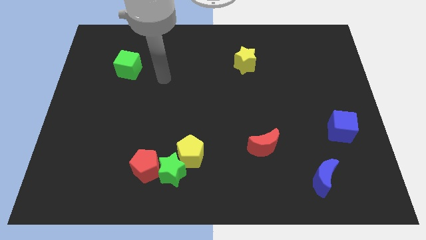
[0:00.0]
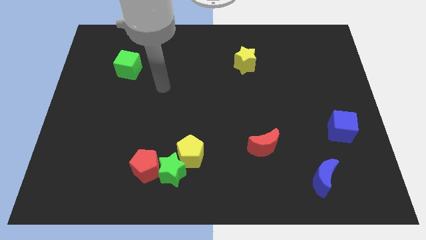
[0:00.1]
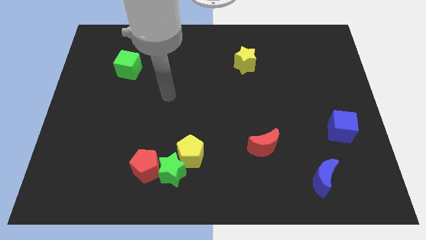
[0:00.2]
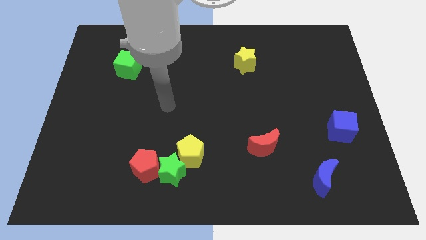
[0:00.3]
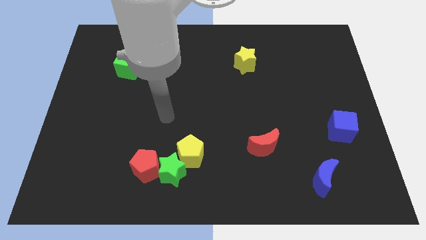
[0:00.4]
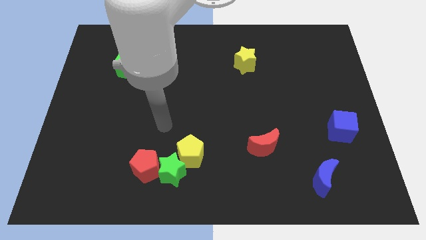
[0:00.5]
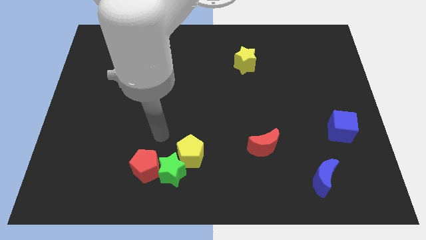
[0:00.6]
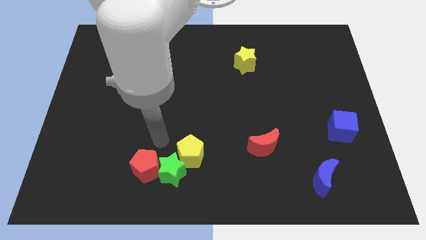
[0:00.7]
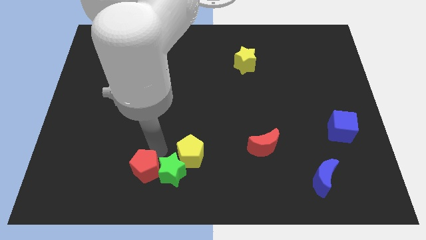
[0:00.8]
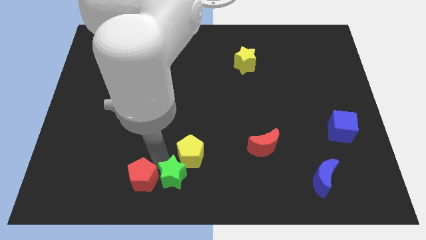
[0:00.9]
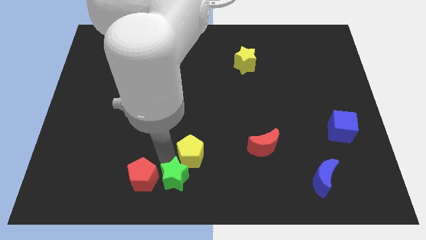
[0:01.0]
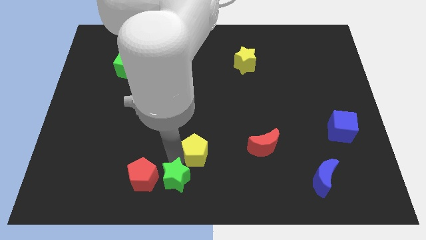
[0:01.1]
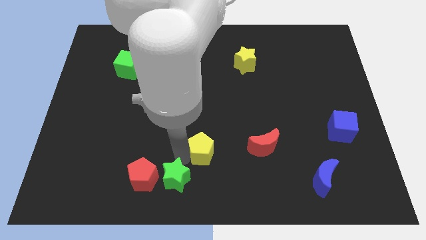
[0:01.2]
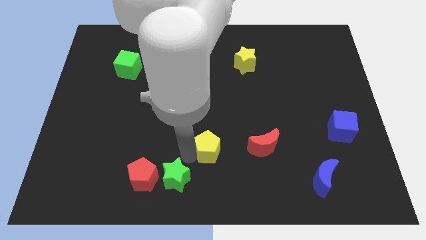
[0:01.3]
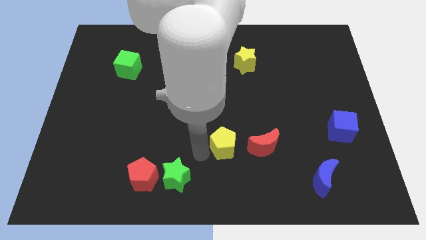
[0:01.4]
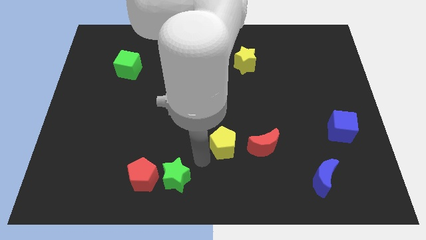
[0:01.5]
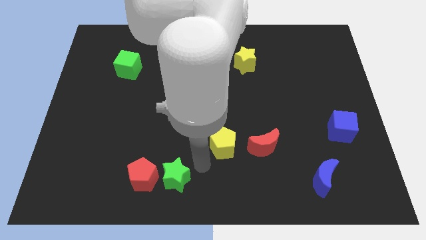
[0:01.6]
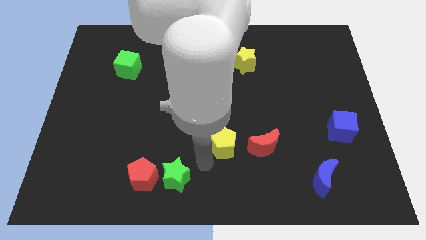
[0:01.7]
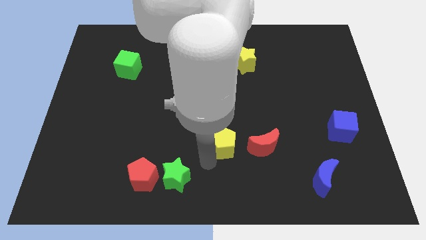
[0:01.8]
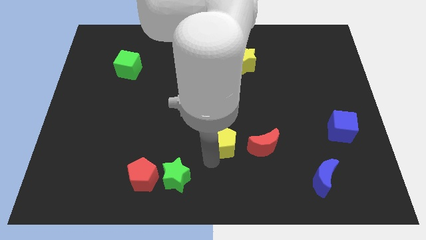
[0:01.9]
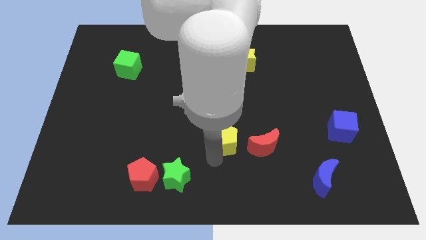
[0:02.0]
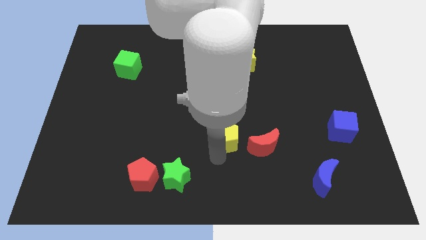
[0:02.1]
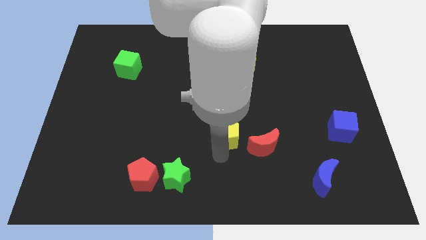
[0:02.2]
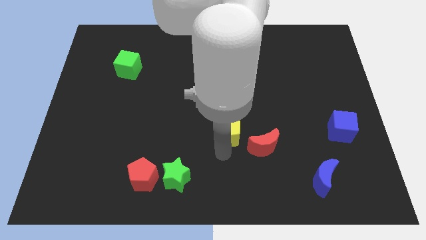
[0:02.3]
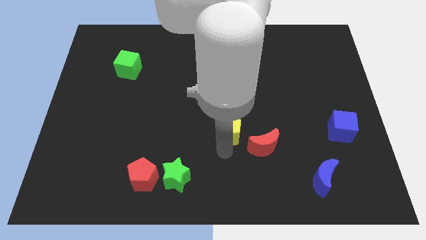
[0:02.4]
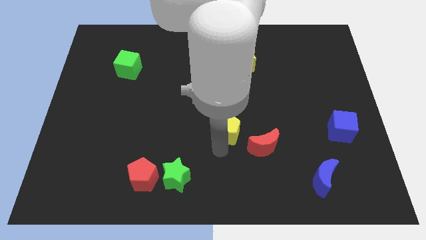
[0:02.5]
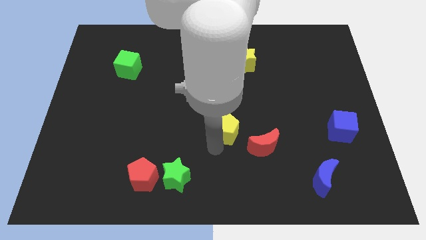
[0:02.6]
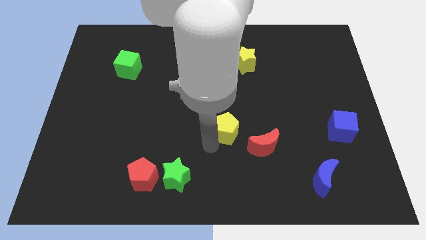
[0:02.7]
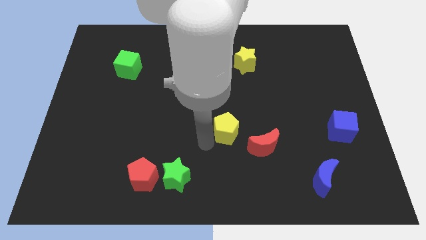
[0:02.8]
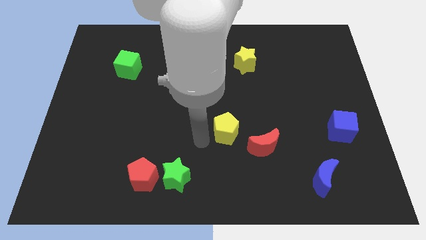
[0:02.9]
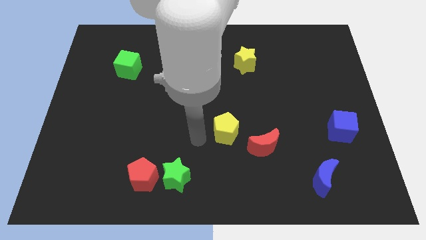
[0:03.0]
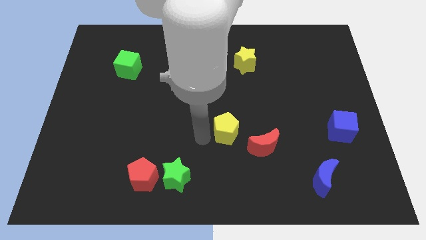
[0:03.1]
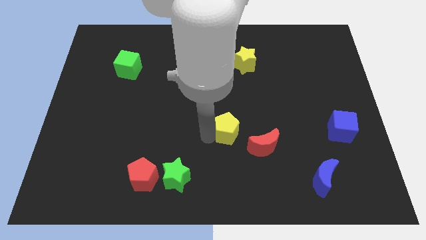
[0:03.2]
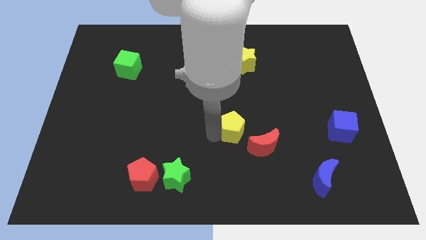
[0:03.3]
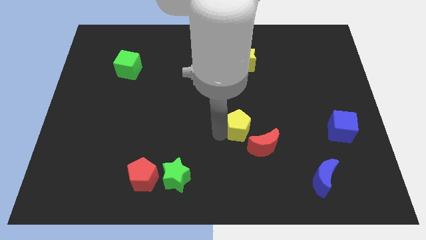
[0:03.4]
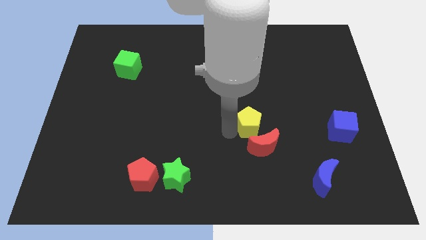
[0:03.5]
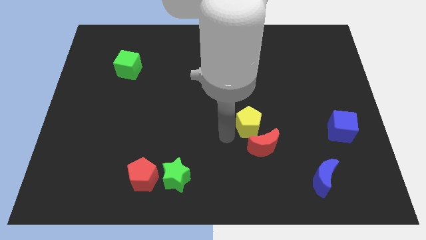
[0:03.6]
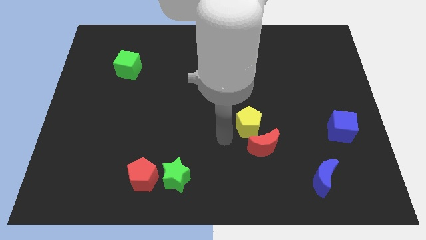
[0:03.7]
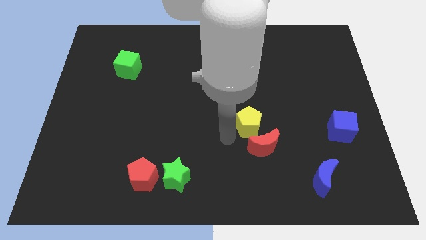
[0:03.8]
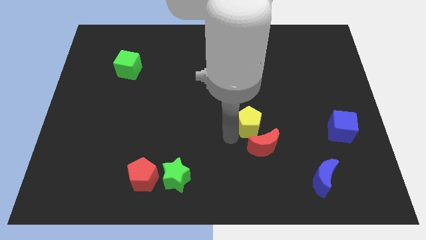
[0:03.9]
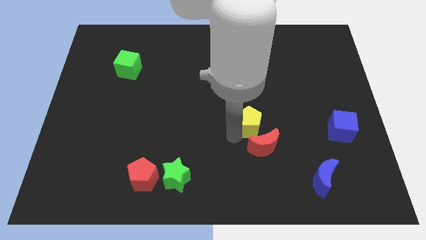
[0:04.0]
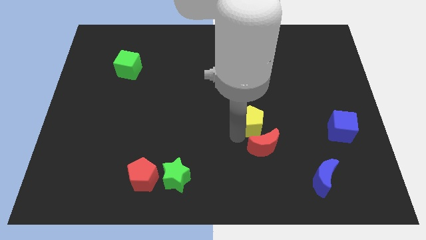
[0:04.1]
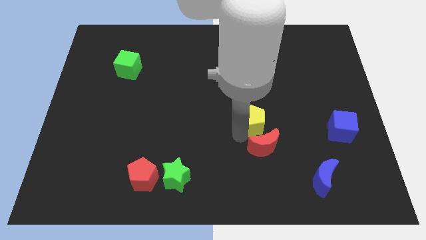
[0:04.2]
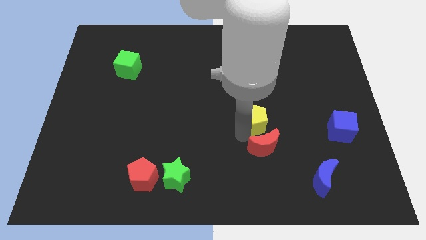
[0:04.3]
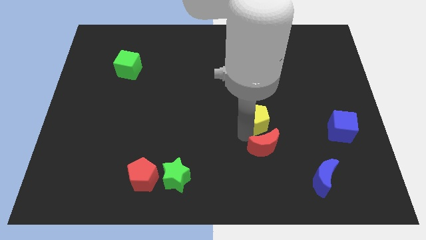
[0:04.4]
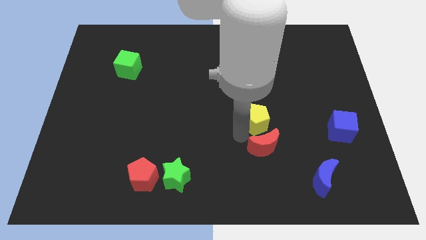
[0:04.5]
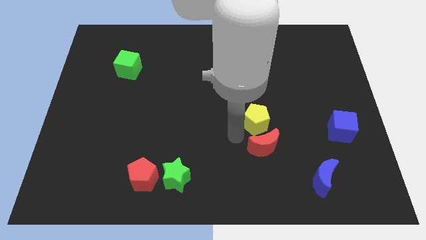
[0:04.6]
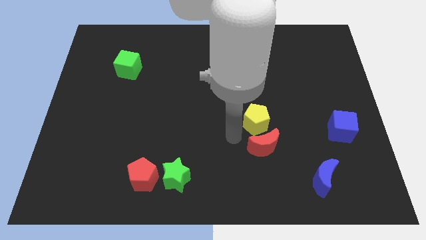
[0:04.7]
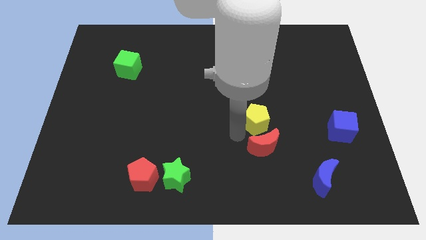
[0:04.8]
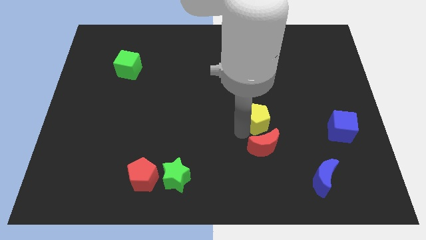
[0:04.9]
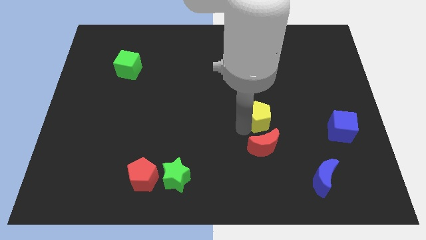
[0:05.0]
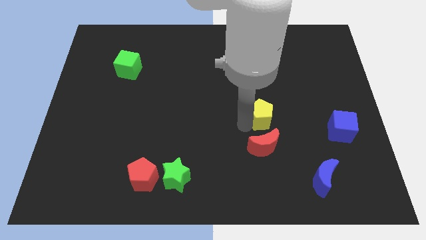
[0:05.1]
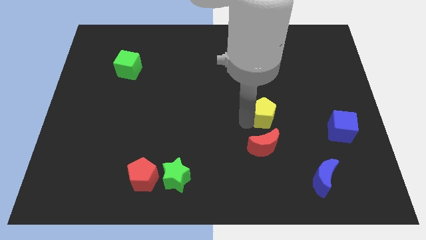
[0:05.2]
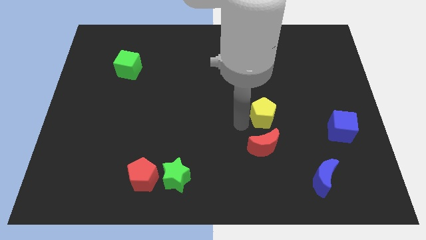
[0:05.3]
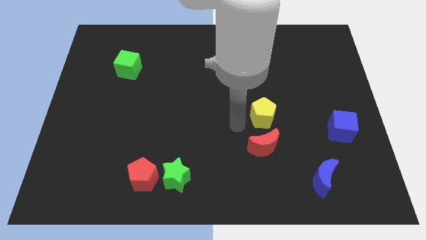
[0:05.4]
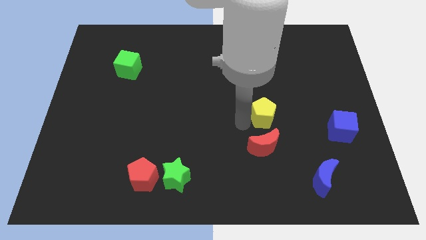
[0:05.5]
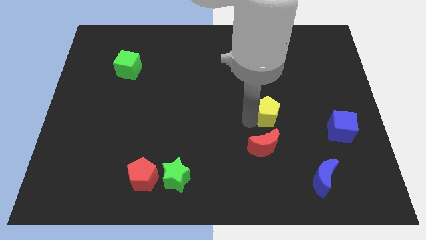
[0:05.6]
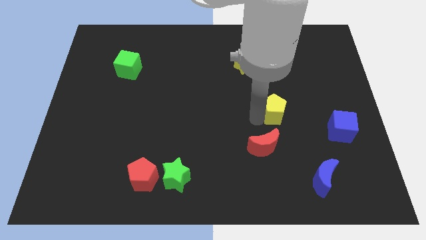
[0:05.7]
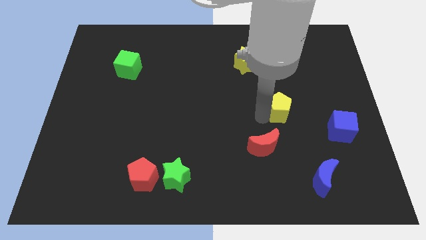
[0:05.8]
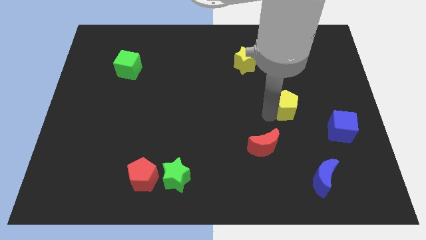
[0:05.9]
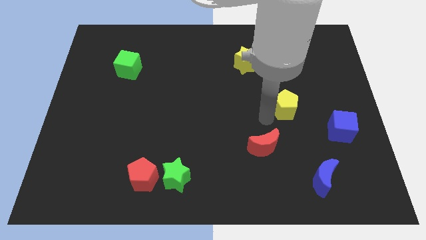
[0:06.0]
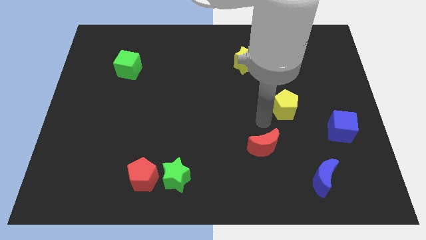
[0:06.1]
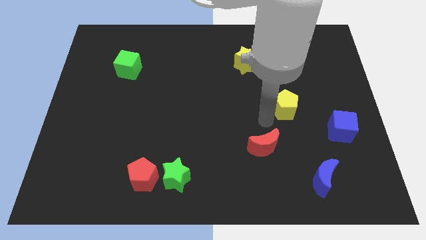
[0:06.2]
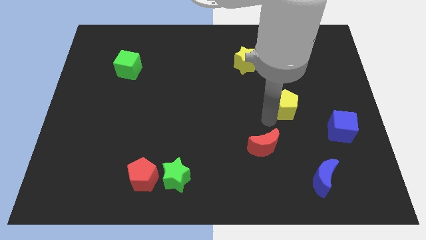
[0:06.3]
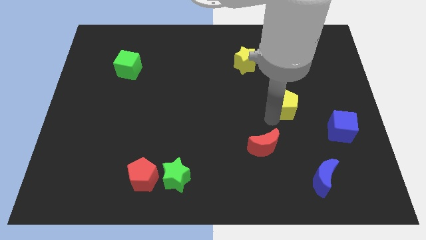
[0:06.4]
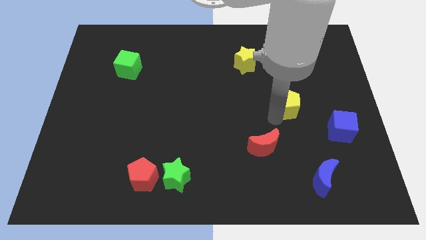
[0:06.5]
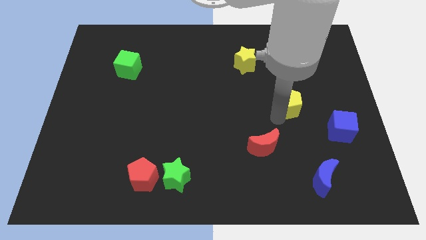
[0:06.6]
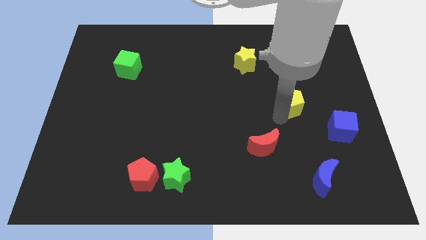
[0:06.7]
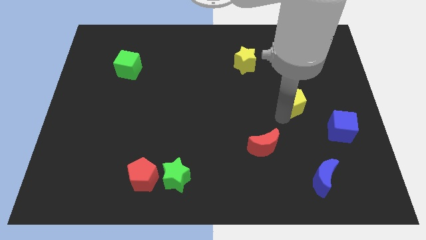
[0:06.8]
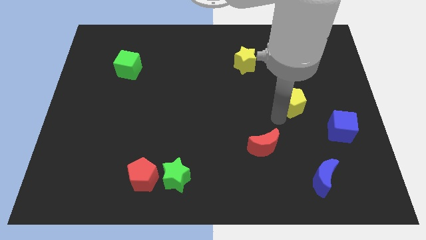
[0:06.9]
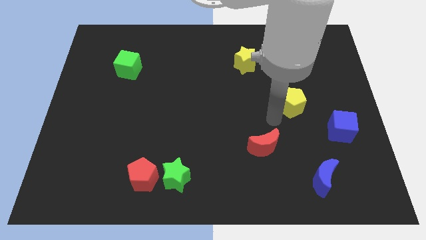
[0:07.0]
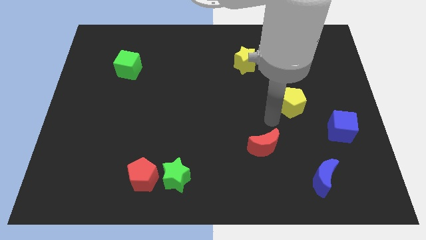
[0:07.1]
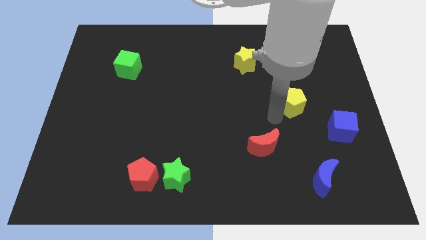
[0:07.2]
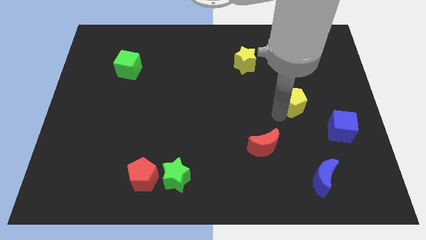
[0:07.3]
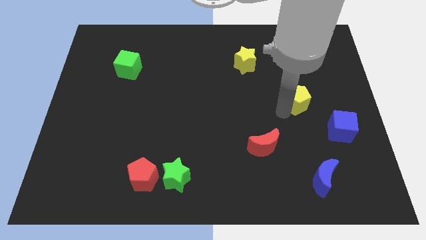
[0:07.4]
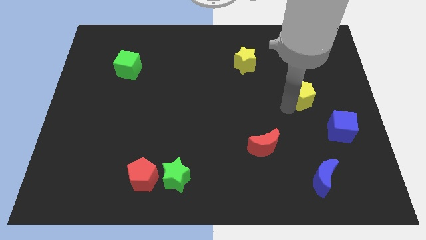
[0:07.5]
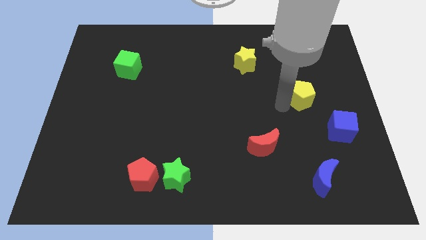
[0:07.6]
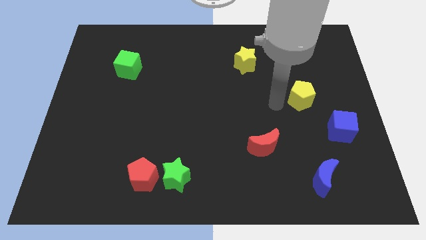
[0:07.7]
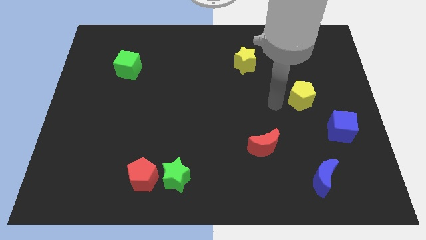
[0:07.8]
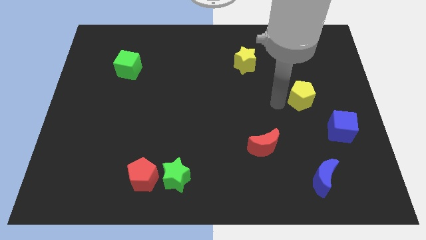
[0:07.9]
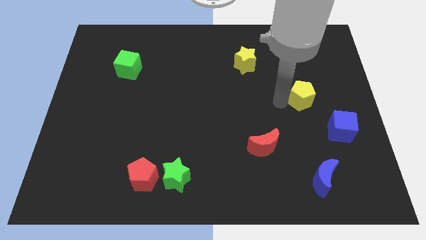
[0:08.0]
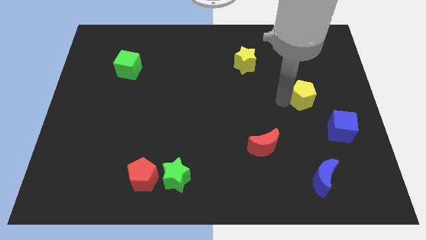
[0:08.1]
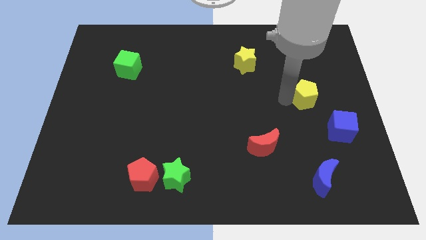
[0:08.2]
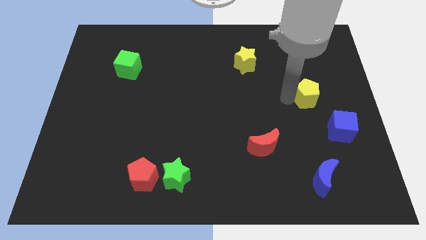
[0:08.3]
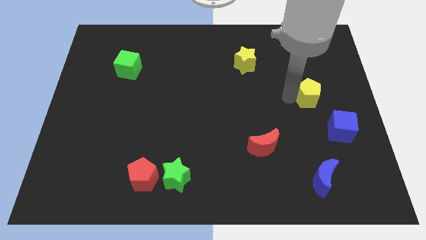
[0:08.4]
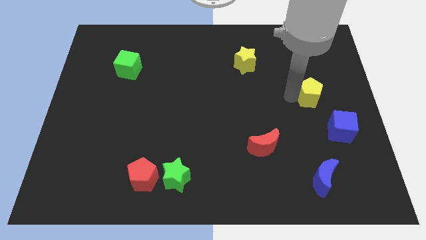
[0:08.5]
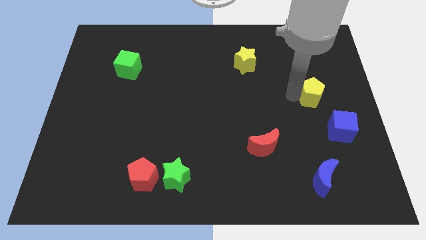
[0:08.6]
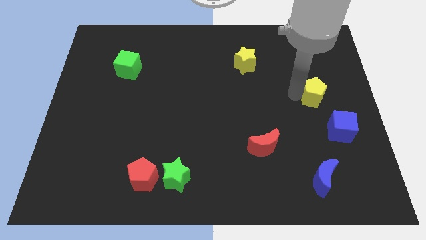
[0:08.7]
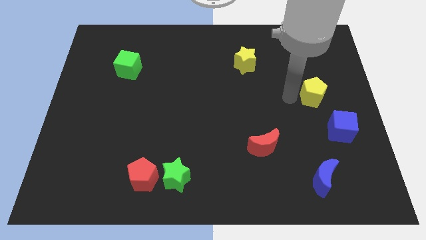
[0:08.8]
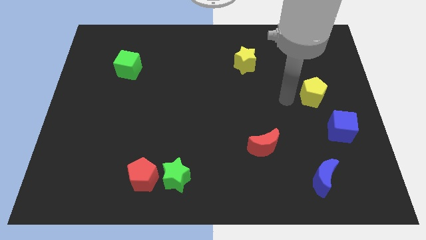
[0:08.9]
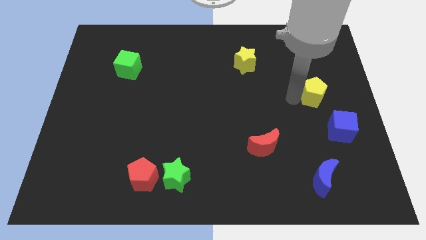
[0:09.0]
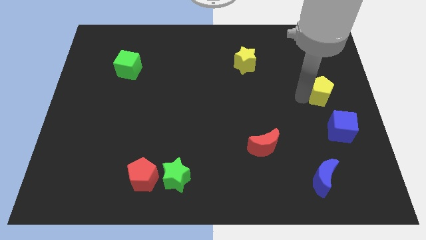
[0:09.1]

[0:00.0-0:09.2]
slide the yellow pentagon to the center right
